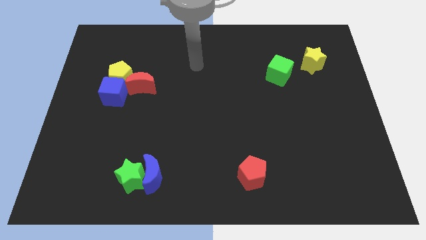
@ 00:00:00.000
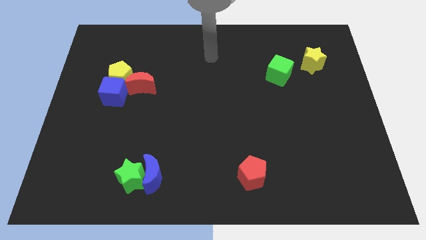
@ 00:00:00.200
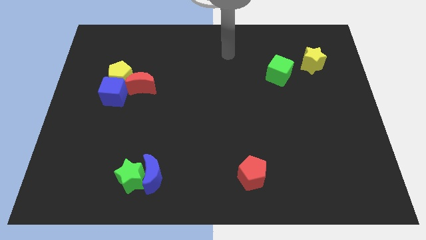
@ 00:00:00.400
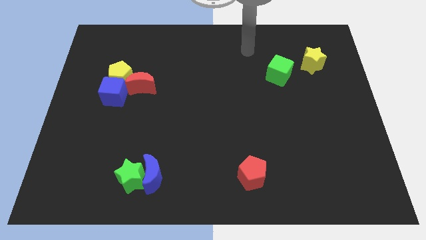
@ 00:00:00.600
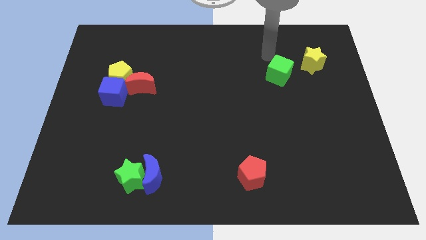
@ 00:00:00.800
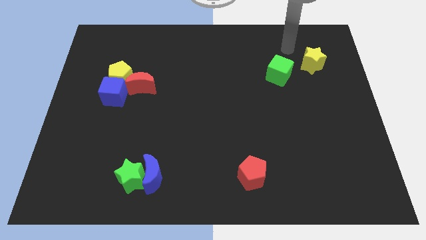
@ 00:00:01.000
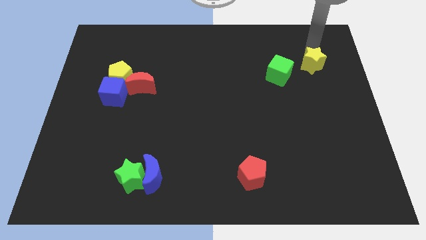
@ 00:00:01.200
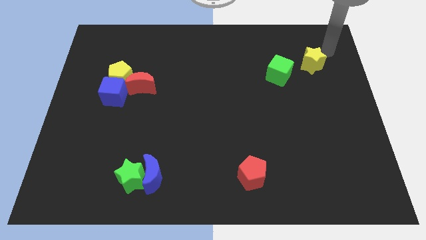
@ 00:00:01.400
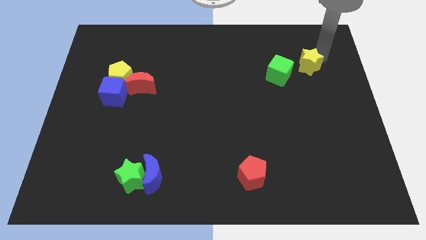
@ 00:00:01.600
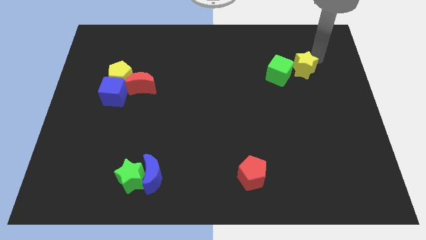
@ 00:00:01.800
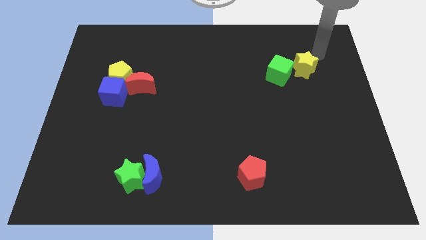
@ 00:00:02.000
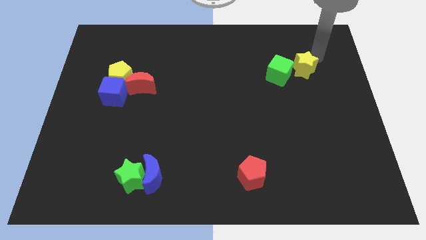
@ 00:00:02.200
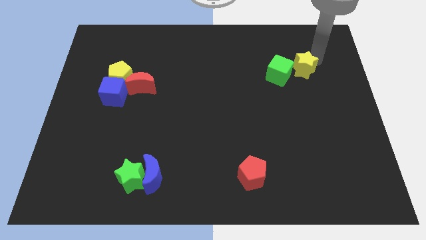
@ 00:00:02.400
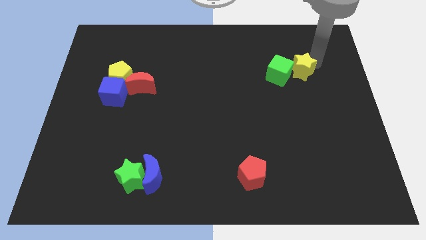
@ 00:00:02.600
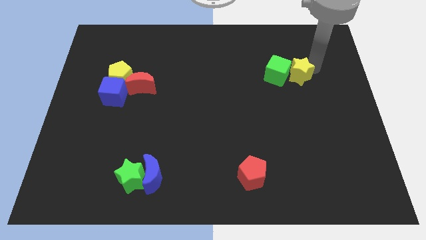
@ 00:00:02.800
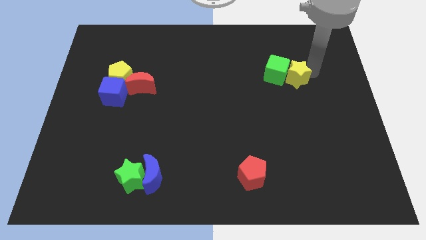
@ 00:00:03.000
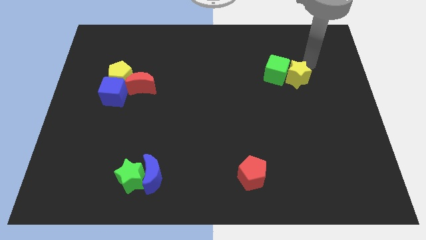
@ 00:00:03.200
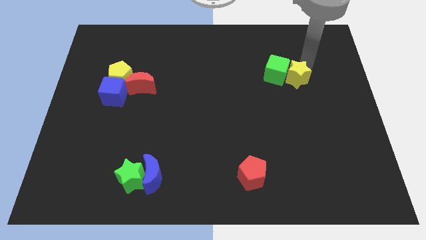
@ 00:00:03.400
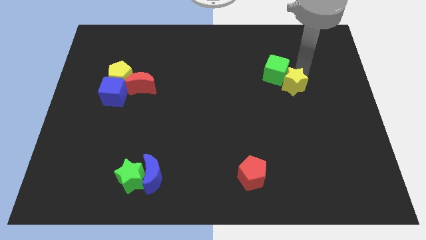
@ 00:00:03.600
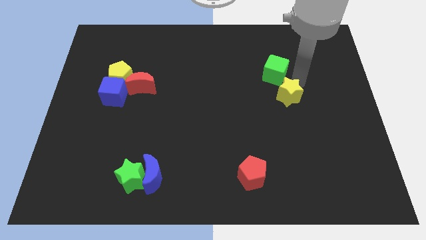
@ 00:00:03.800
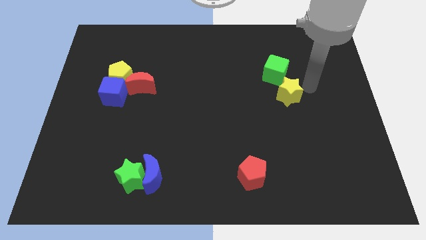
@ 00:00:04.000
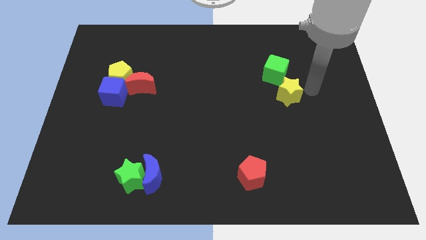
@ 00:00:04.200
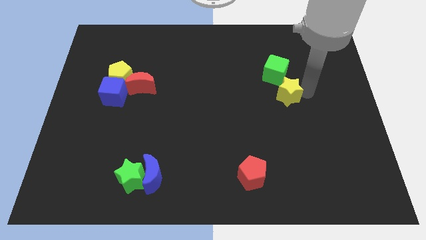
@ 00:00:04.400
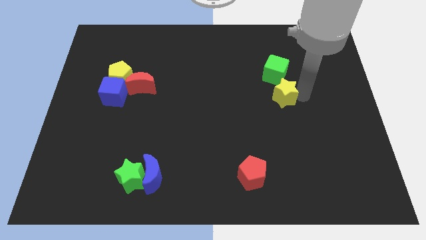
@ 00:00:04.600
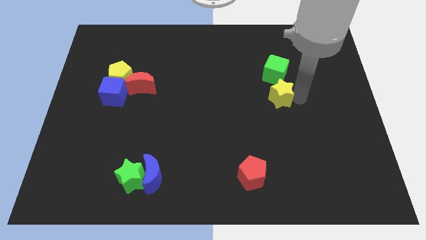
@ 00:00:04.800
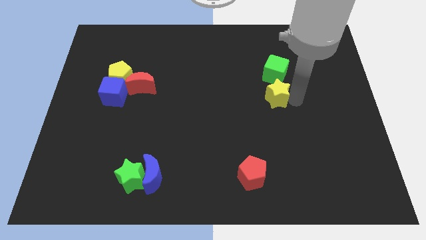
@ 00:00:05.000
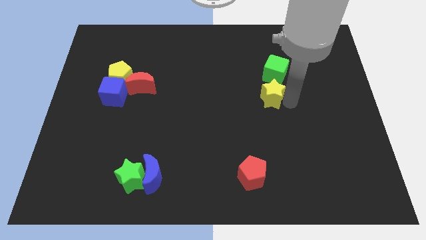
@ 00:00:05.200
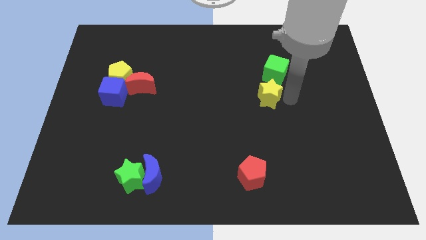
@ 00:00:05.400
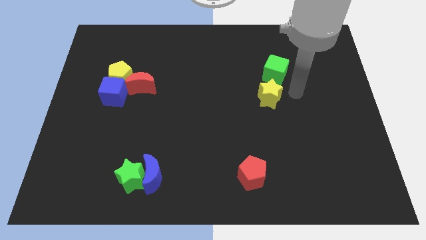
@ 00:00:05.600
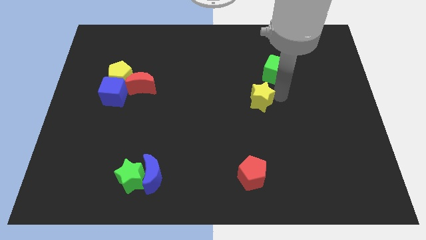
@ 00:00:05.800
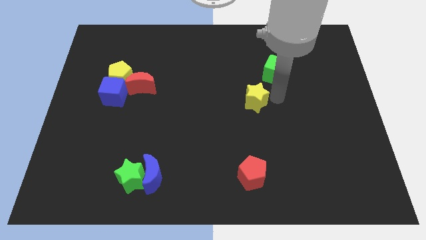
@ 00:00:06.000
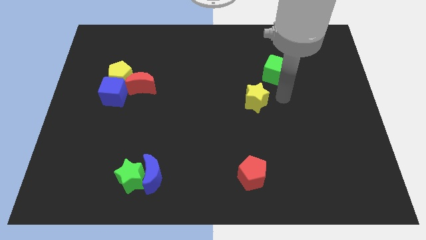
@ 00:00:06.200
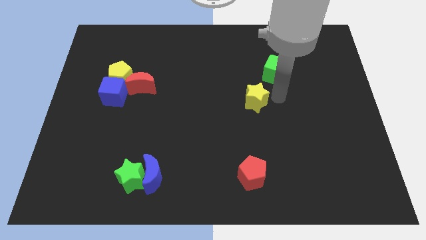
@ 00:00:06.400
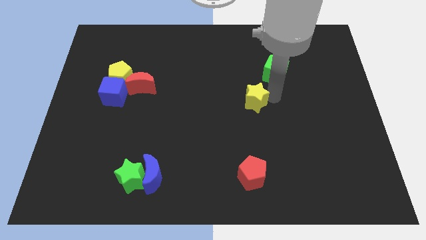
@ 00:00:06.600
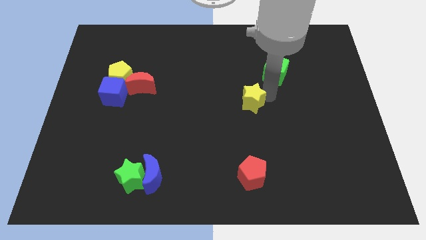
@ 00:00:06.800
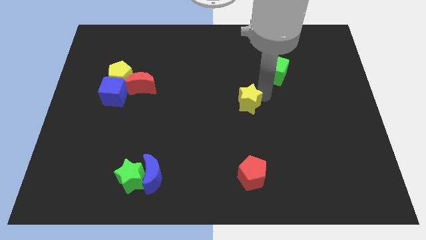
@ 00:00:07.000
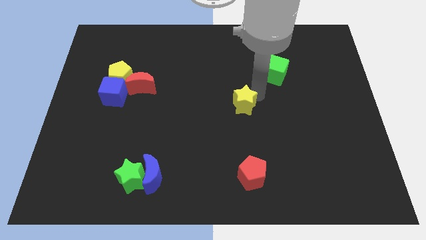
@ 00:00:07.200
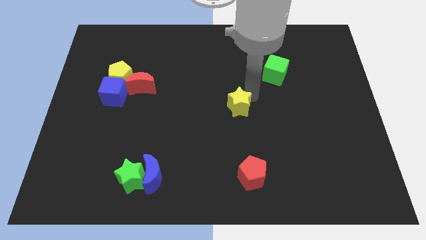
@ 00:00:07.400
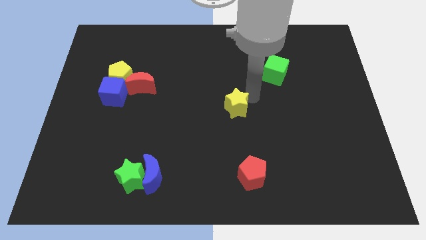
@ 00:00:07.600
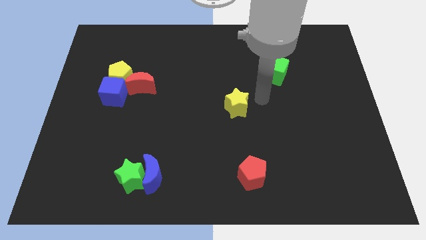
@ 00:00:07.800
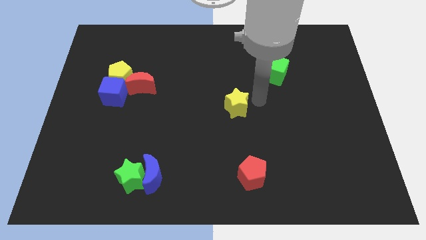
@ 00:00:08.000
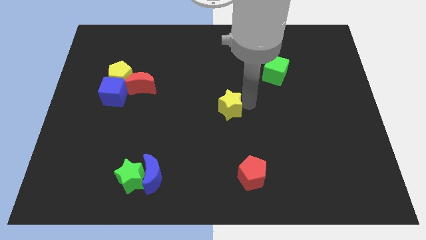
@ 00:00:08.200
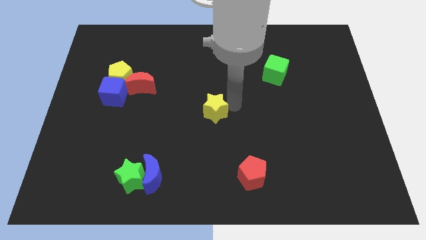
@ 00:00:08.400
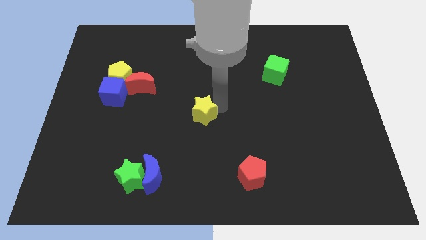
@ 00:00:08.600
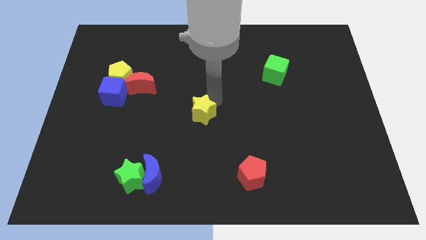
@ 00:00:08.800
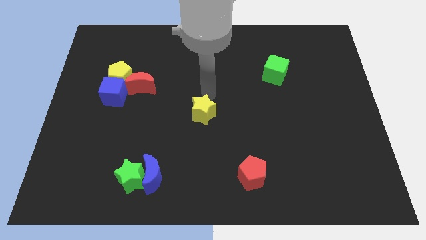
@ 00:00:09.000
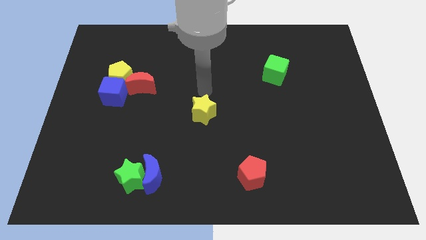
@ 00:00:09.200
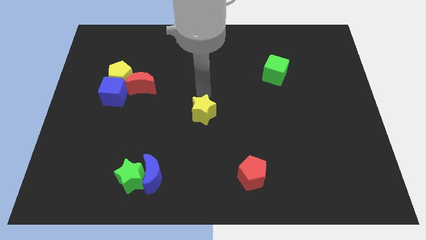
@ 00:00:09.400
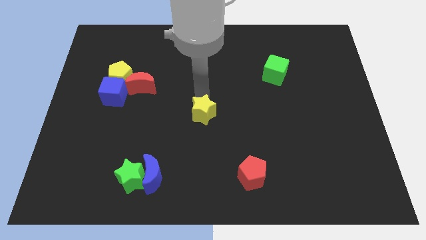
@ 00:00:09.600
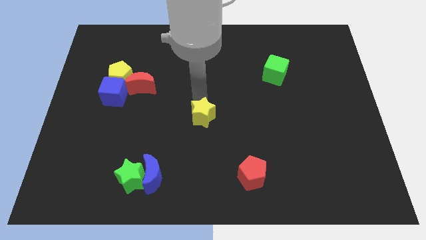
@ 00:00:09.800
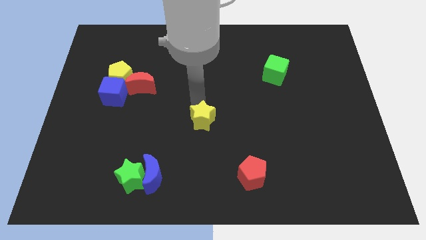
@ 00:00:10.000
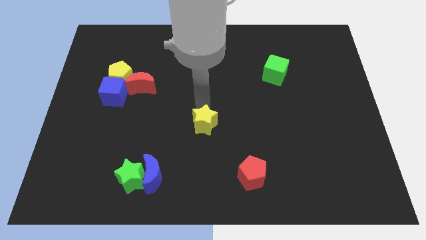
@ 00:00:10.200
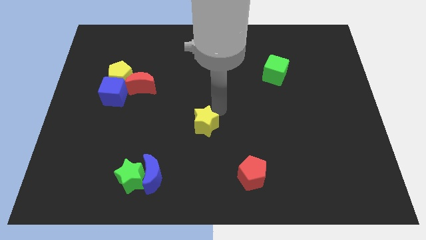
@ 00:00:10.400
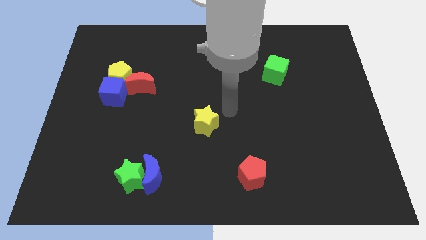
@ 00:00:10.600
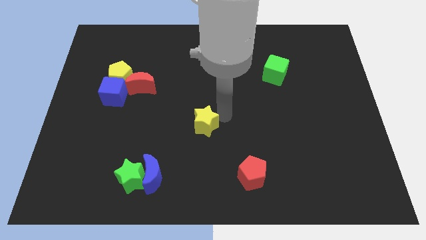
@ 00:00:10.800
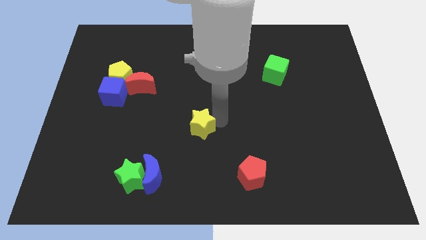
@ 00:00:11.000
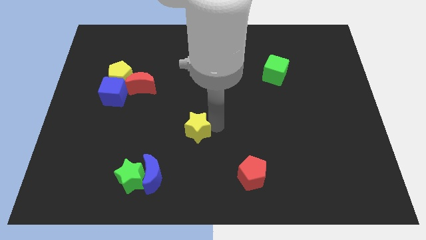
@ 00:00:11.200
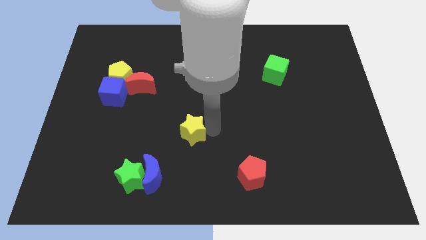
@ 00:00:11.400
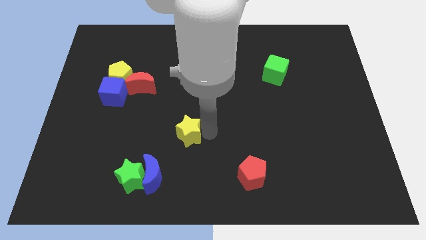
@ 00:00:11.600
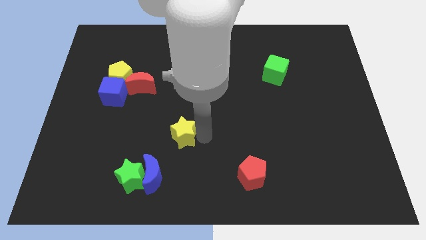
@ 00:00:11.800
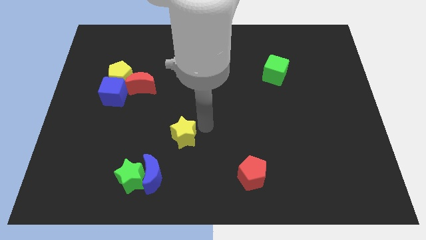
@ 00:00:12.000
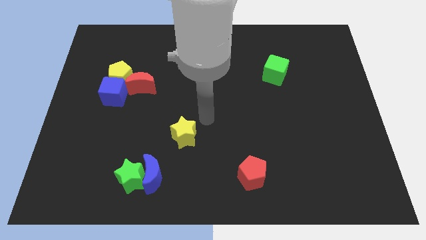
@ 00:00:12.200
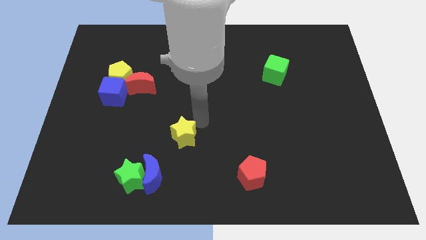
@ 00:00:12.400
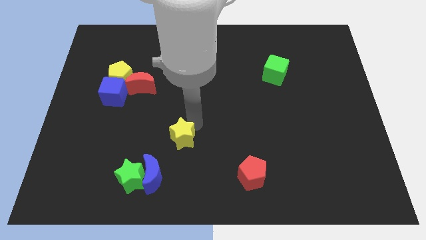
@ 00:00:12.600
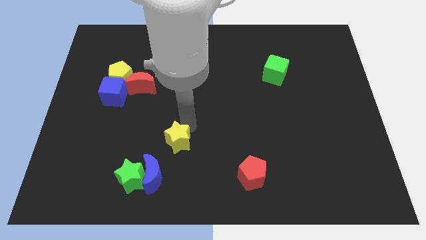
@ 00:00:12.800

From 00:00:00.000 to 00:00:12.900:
push the yellow star to the top right side of the green star
